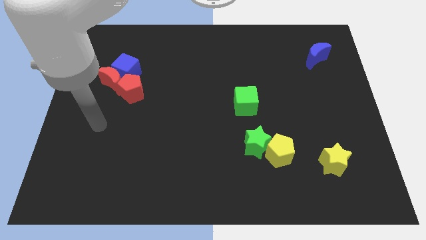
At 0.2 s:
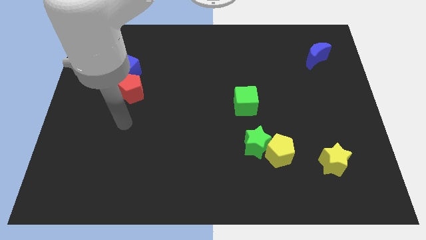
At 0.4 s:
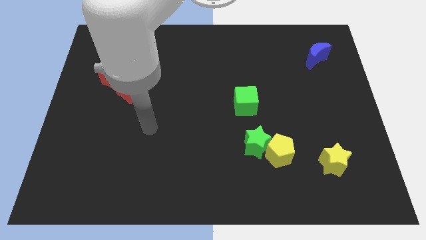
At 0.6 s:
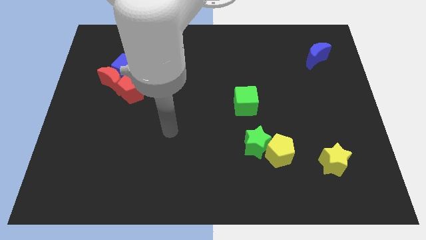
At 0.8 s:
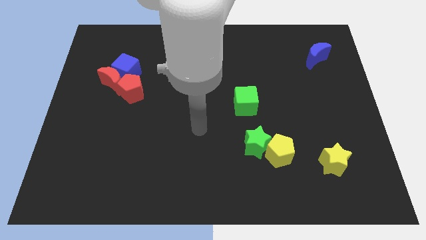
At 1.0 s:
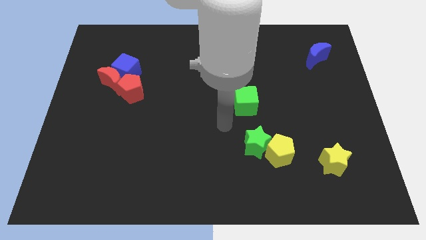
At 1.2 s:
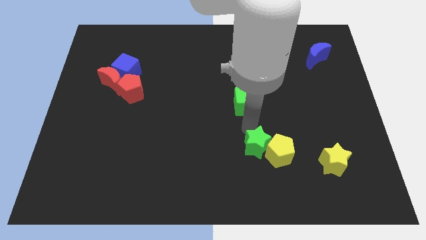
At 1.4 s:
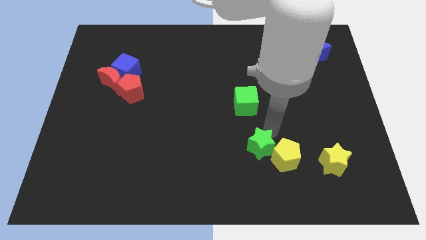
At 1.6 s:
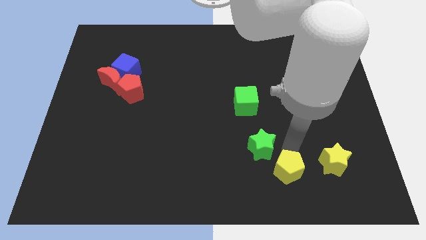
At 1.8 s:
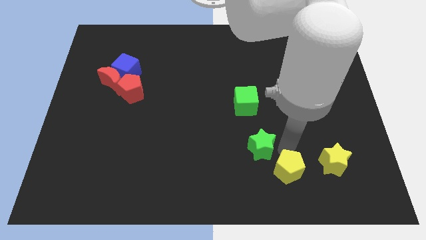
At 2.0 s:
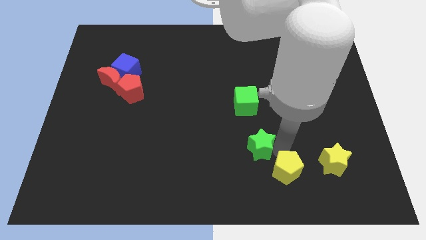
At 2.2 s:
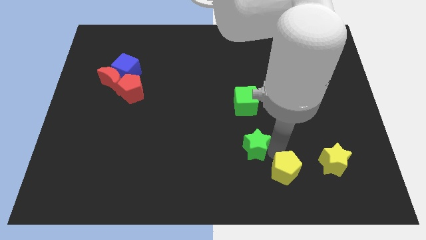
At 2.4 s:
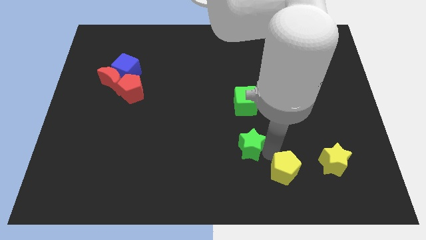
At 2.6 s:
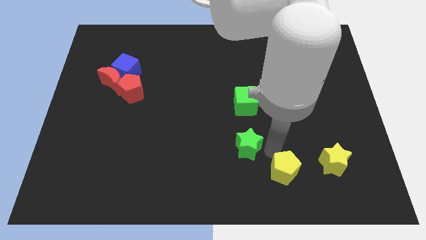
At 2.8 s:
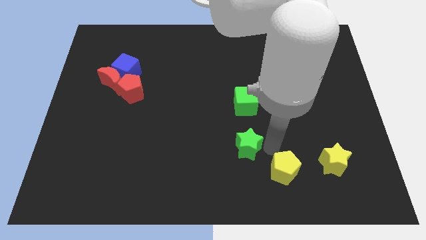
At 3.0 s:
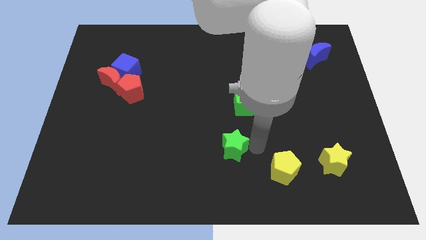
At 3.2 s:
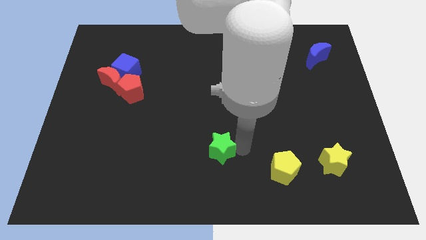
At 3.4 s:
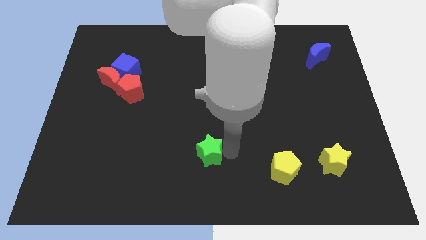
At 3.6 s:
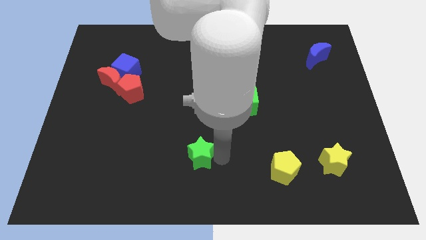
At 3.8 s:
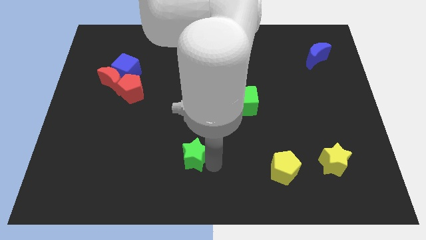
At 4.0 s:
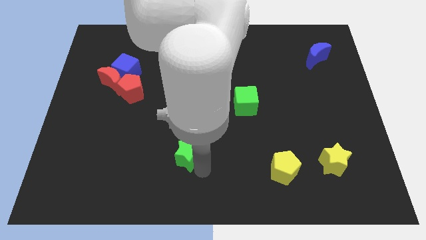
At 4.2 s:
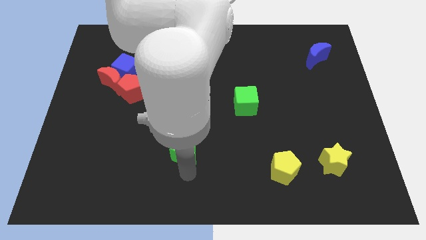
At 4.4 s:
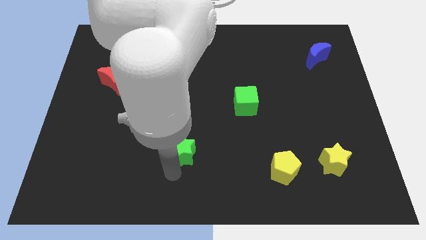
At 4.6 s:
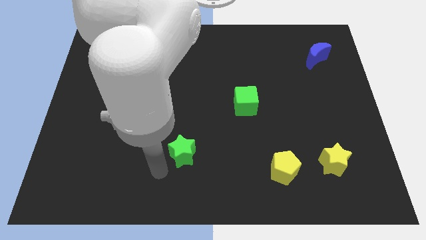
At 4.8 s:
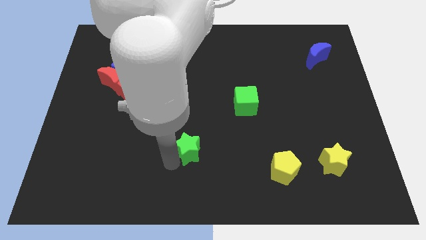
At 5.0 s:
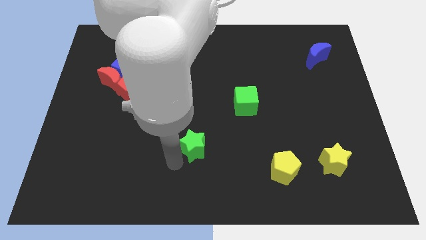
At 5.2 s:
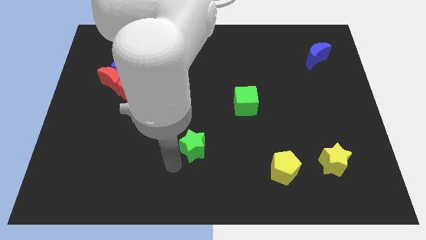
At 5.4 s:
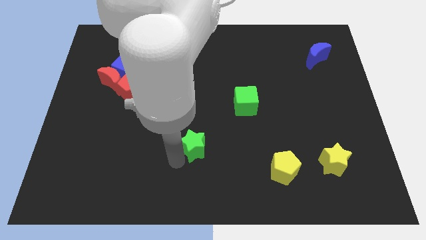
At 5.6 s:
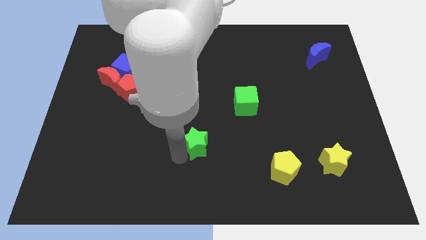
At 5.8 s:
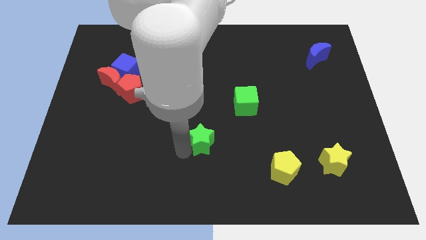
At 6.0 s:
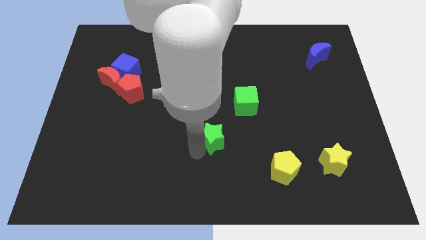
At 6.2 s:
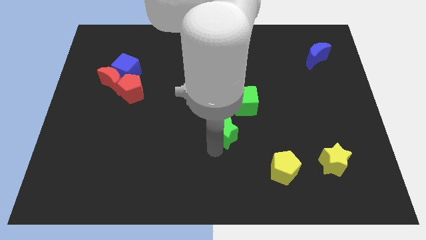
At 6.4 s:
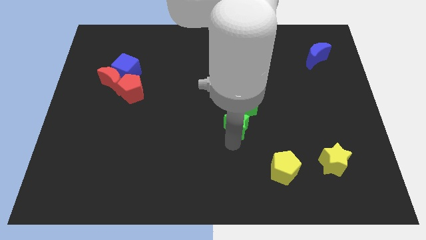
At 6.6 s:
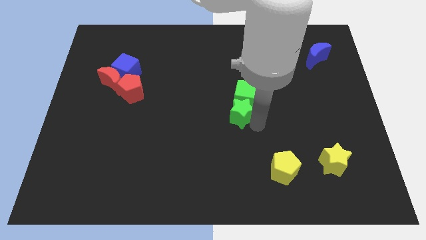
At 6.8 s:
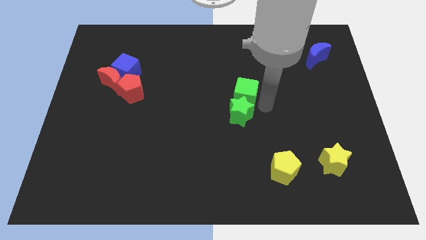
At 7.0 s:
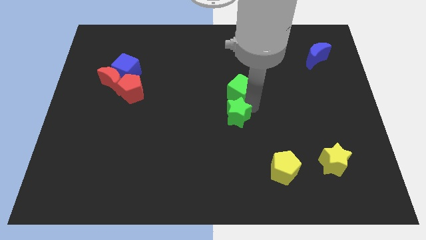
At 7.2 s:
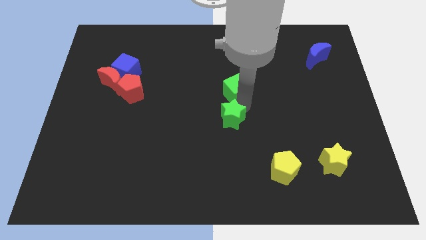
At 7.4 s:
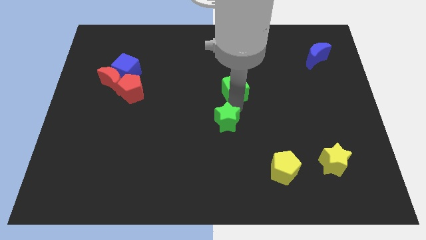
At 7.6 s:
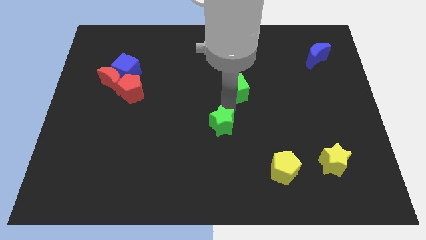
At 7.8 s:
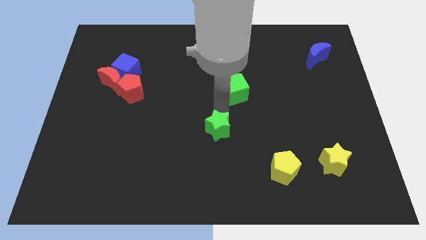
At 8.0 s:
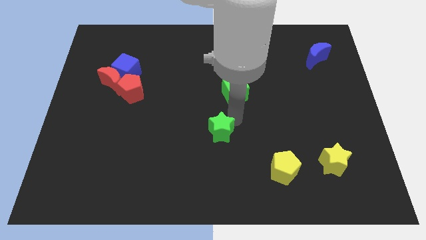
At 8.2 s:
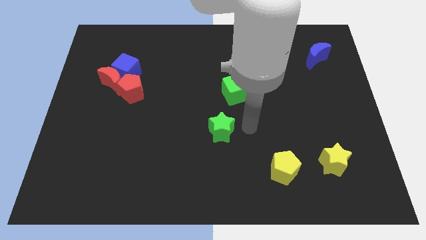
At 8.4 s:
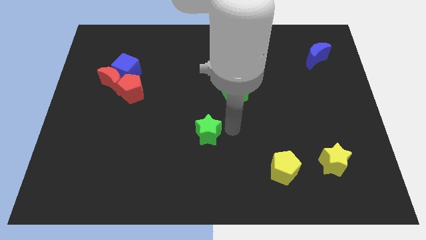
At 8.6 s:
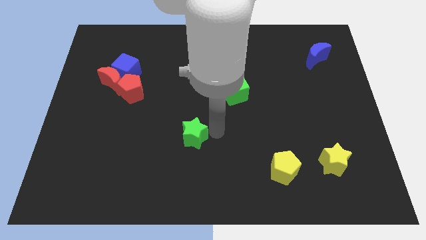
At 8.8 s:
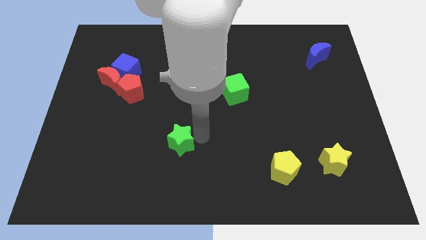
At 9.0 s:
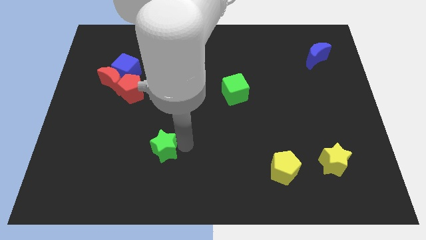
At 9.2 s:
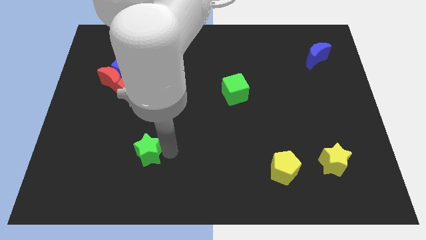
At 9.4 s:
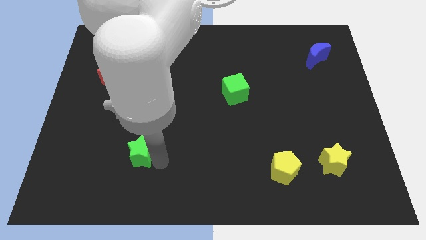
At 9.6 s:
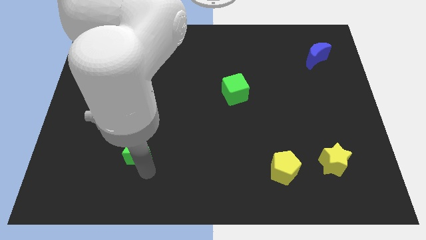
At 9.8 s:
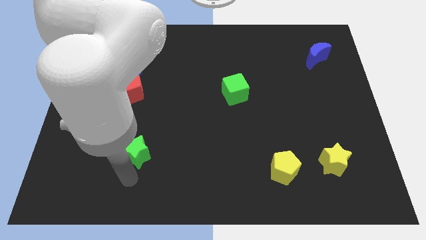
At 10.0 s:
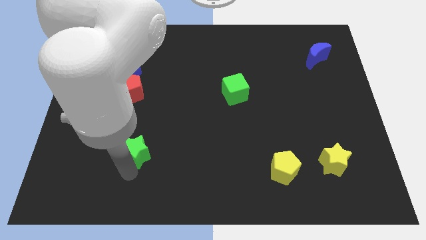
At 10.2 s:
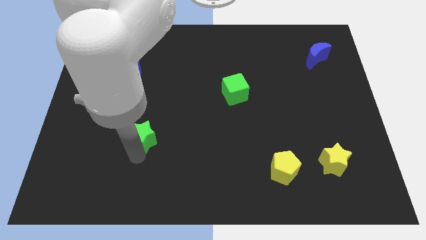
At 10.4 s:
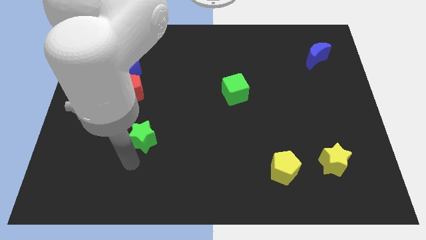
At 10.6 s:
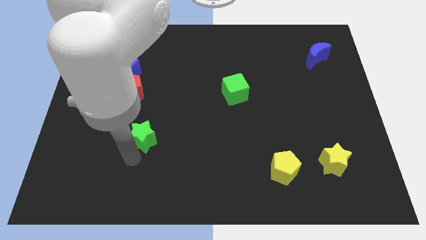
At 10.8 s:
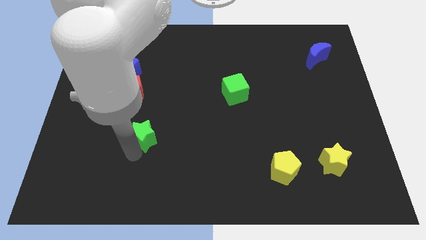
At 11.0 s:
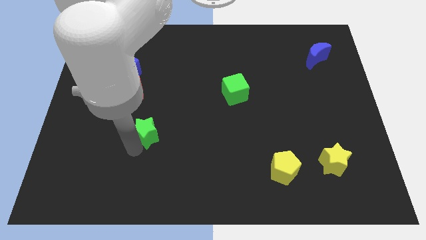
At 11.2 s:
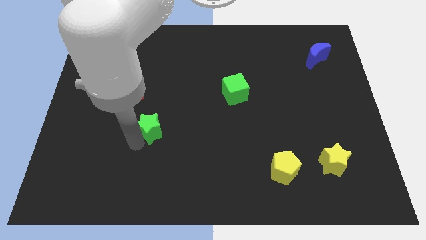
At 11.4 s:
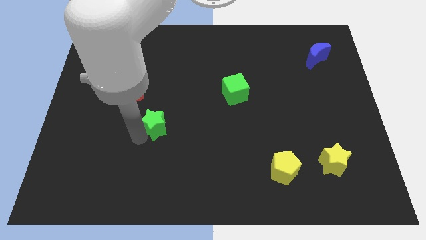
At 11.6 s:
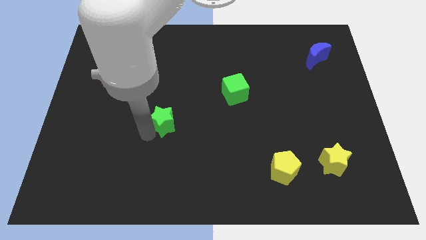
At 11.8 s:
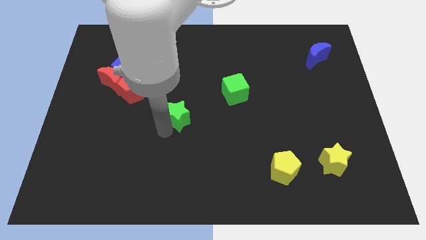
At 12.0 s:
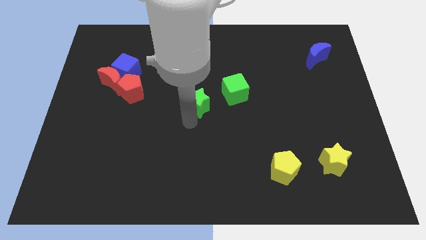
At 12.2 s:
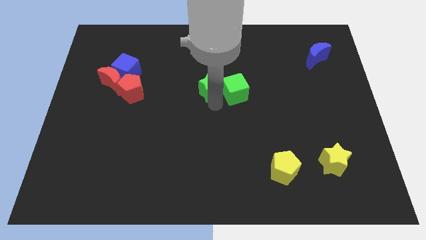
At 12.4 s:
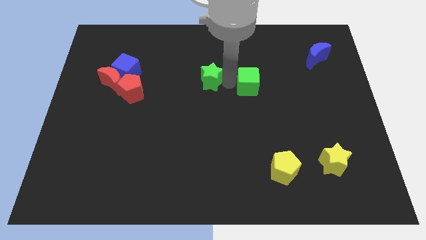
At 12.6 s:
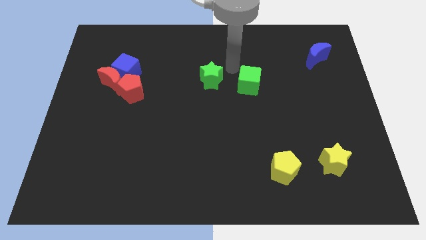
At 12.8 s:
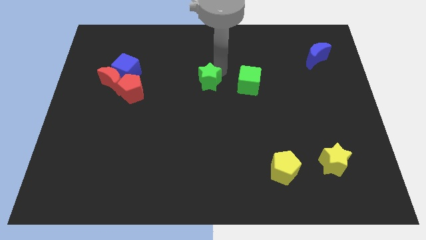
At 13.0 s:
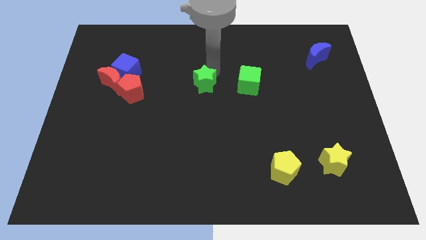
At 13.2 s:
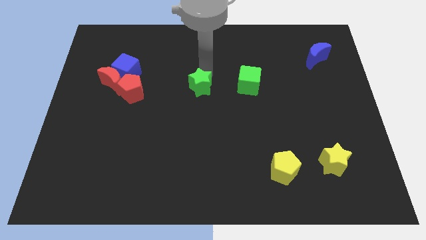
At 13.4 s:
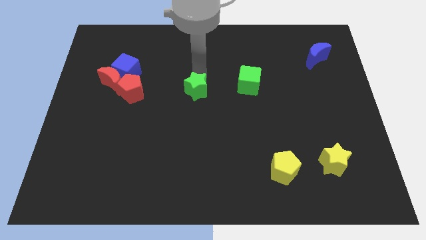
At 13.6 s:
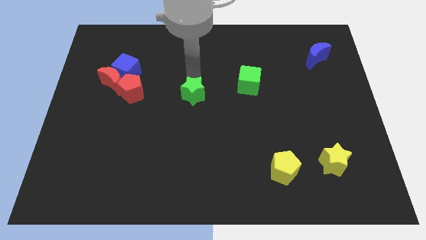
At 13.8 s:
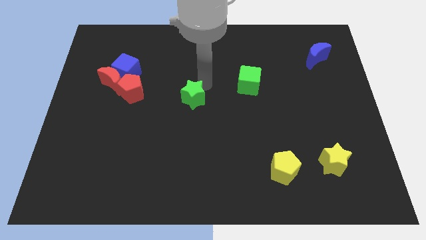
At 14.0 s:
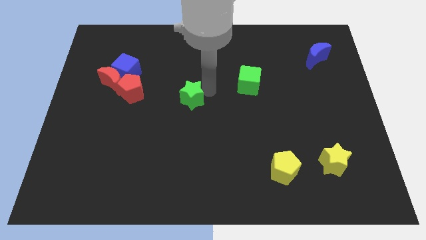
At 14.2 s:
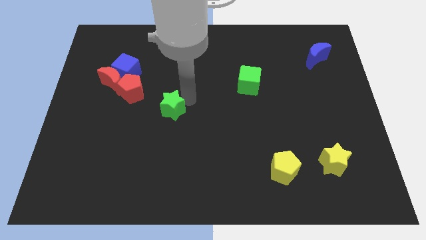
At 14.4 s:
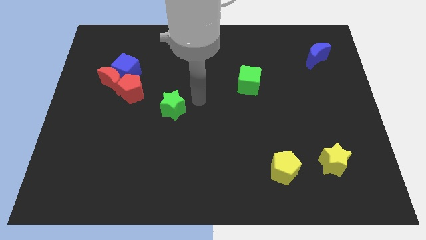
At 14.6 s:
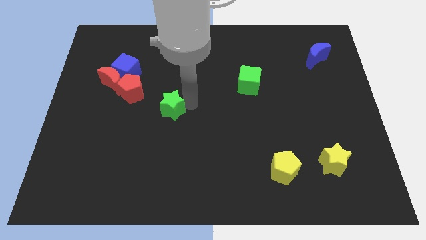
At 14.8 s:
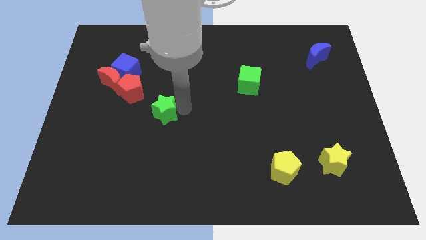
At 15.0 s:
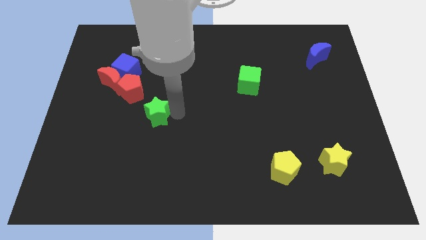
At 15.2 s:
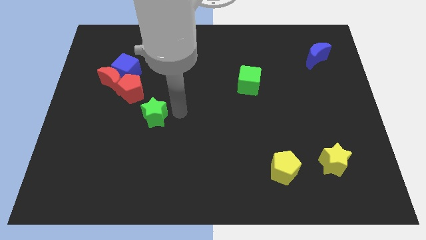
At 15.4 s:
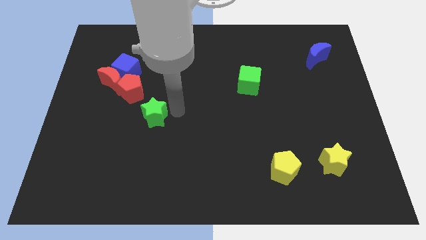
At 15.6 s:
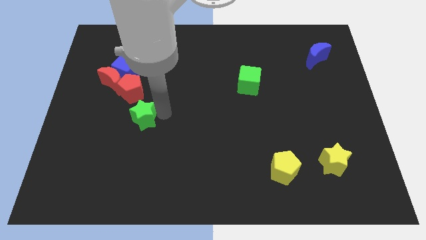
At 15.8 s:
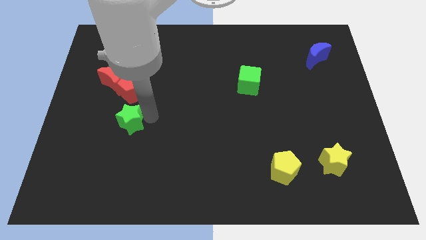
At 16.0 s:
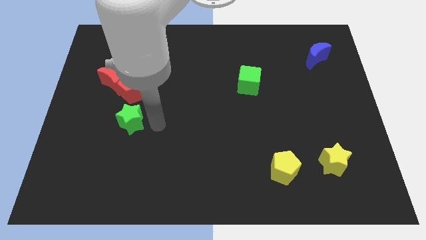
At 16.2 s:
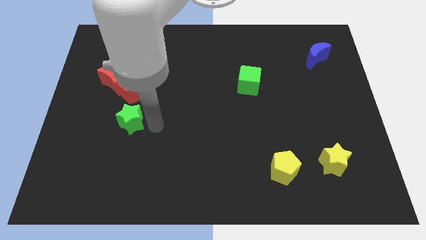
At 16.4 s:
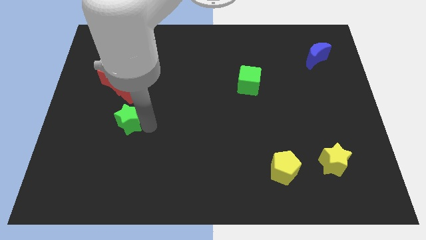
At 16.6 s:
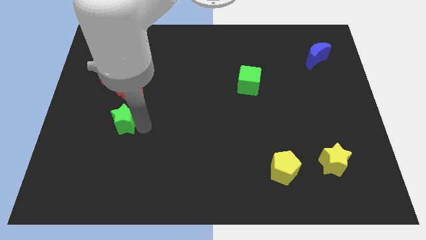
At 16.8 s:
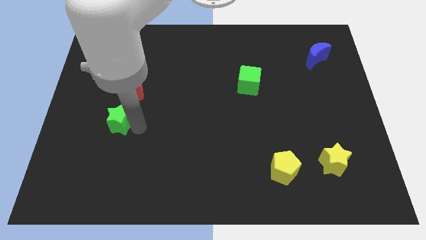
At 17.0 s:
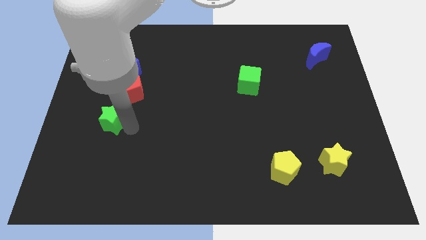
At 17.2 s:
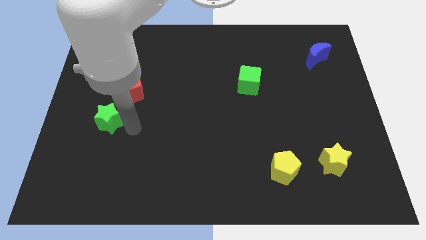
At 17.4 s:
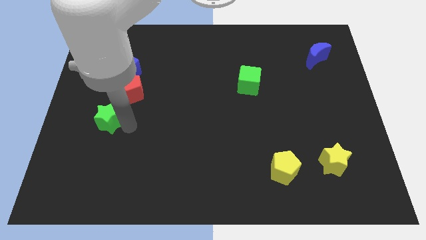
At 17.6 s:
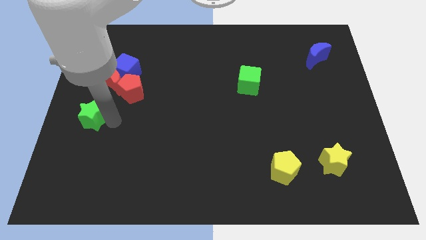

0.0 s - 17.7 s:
push the green star to the left side of the board
